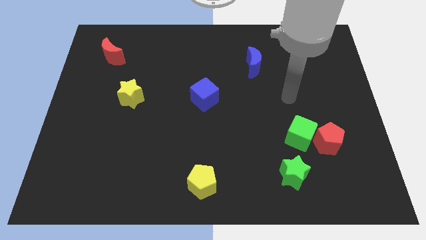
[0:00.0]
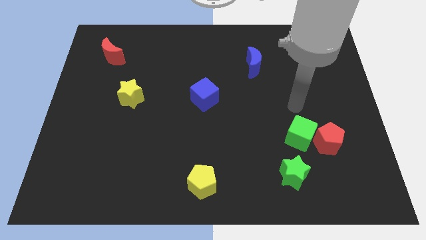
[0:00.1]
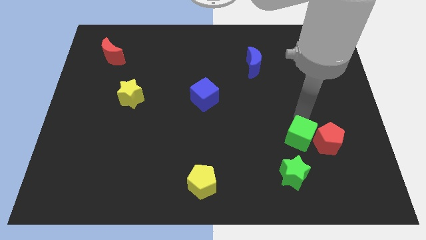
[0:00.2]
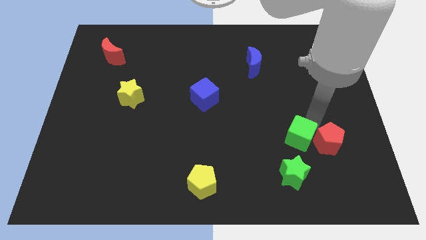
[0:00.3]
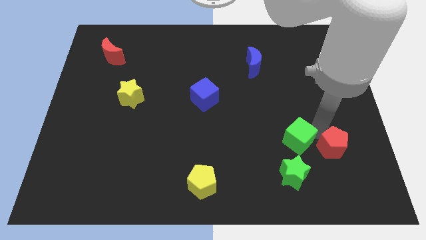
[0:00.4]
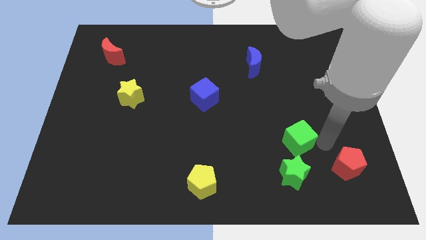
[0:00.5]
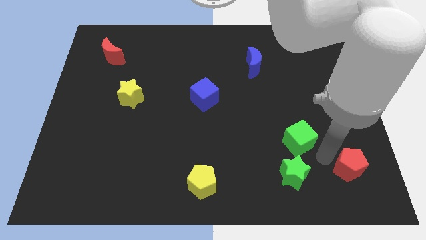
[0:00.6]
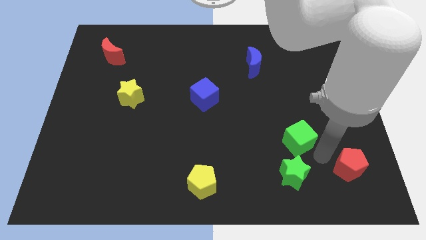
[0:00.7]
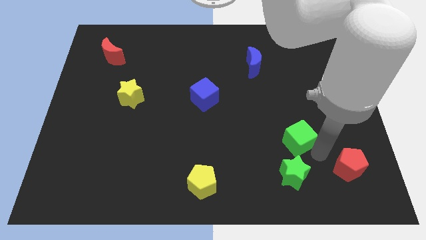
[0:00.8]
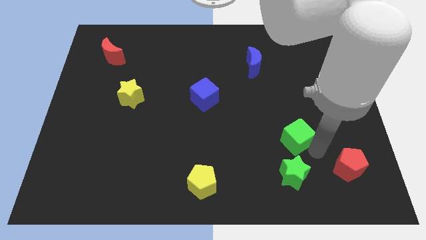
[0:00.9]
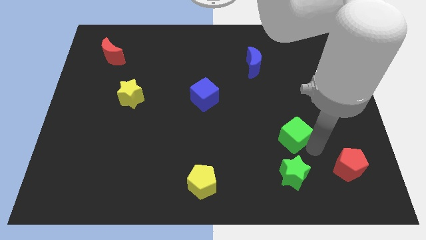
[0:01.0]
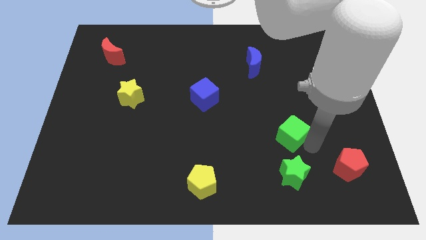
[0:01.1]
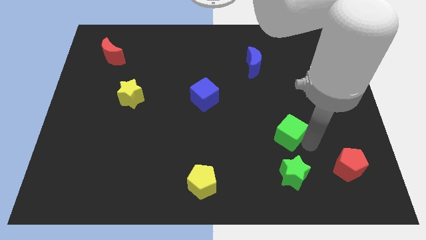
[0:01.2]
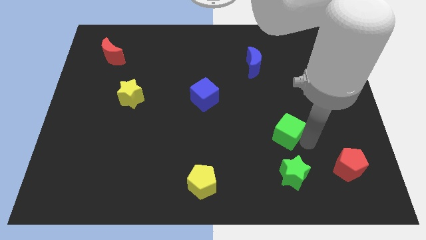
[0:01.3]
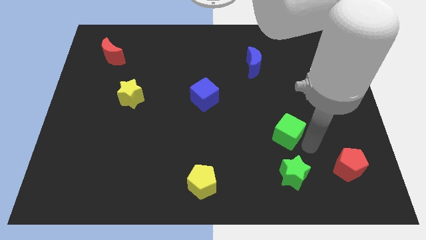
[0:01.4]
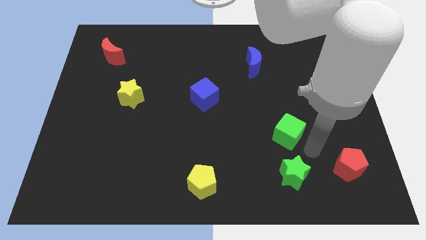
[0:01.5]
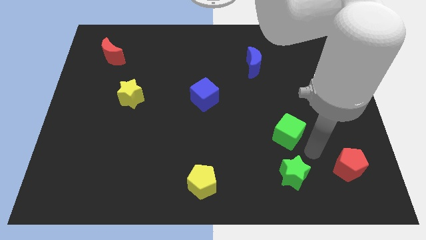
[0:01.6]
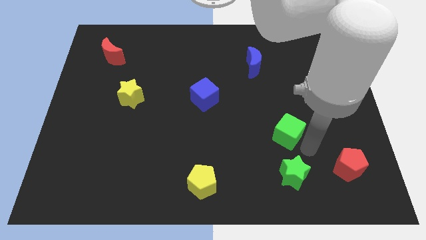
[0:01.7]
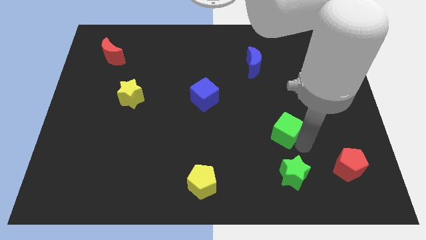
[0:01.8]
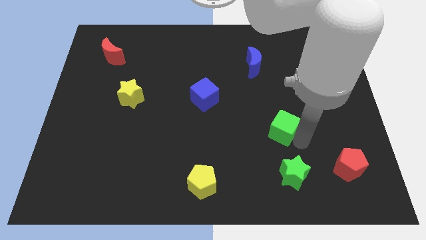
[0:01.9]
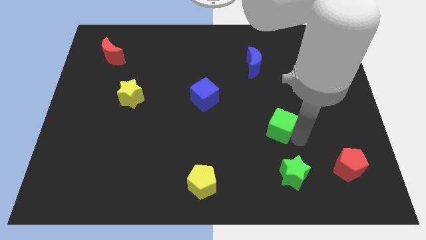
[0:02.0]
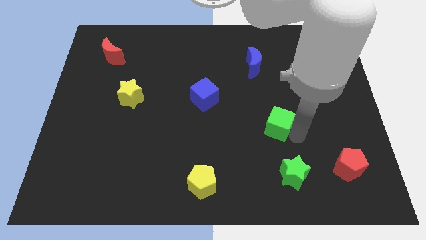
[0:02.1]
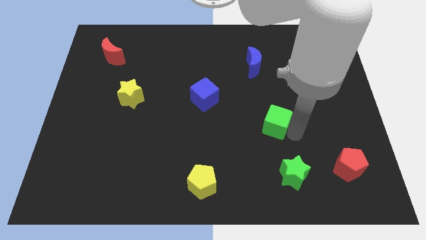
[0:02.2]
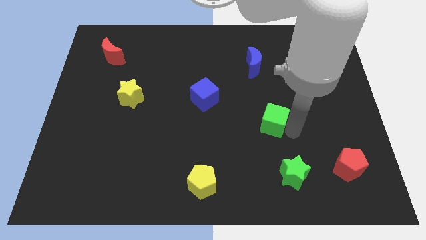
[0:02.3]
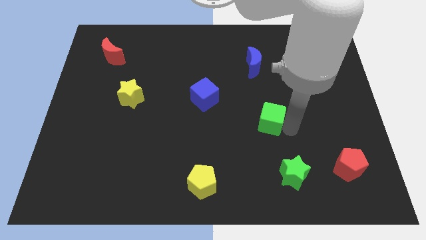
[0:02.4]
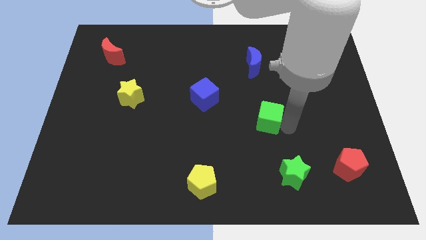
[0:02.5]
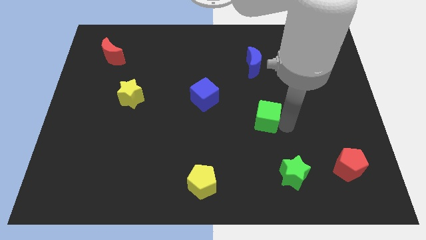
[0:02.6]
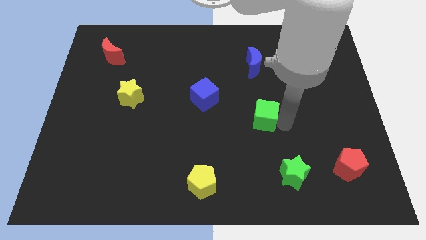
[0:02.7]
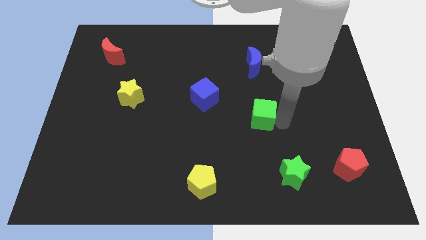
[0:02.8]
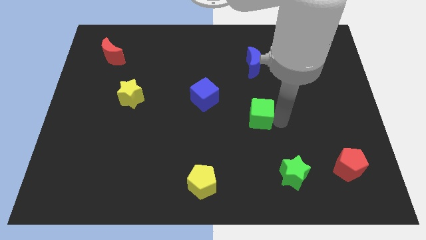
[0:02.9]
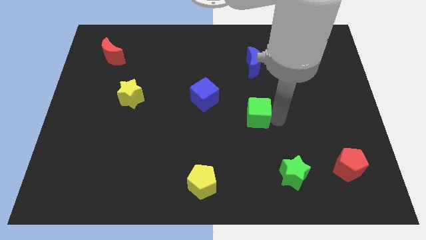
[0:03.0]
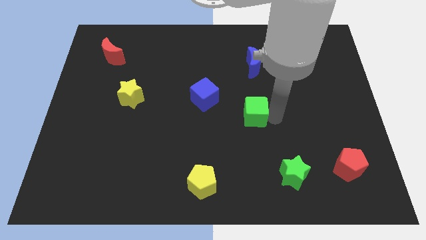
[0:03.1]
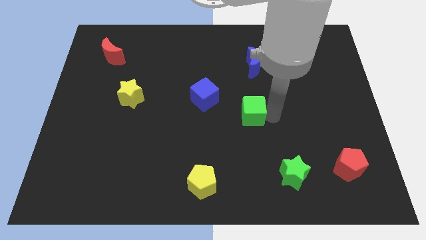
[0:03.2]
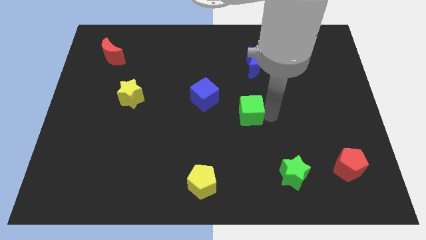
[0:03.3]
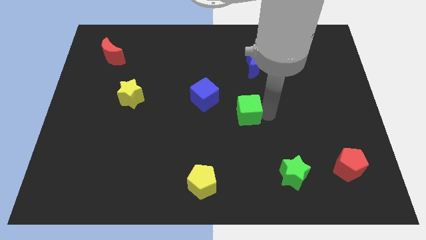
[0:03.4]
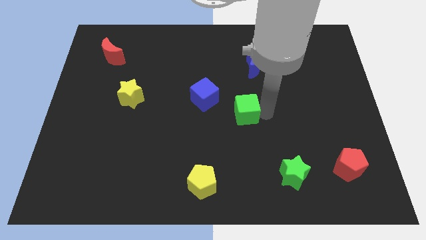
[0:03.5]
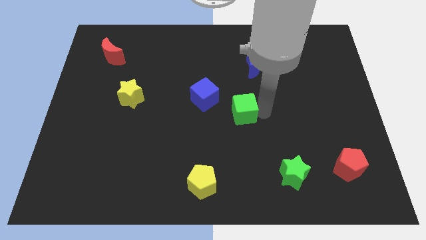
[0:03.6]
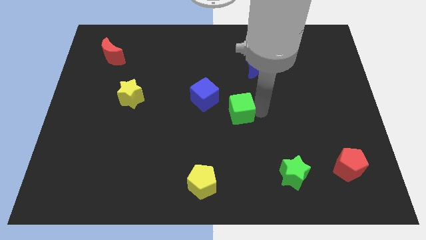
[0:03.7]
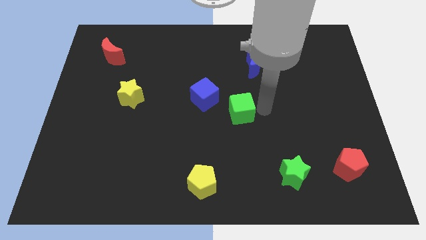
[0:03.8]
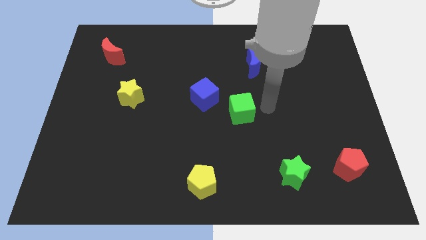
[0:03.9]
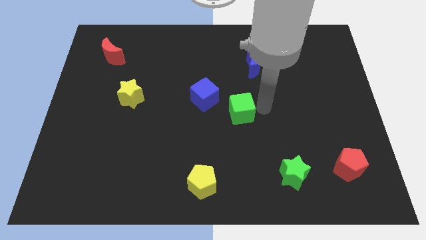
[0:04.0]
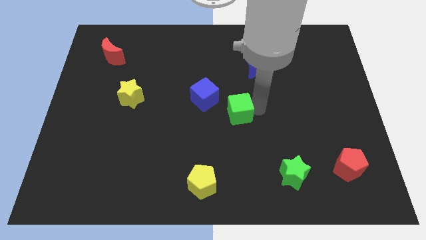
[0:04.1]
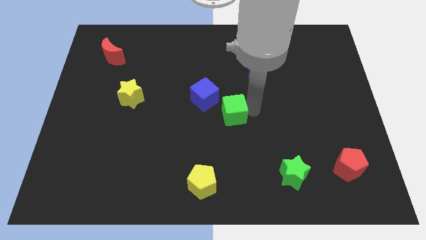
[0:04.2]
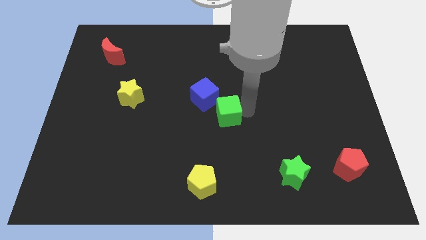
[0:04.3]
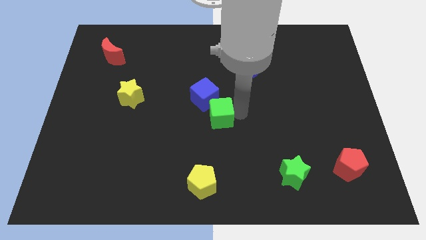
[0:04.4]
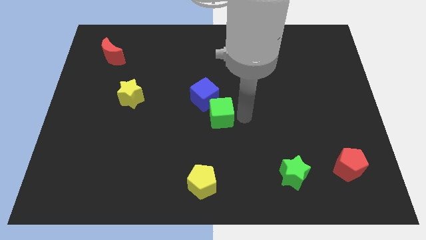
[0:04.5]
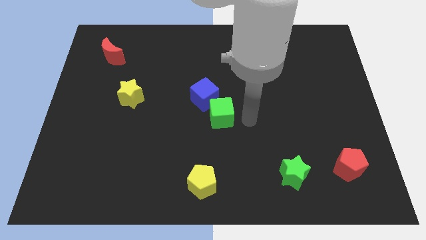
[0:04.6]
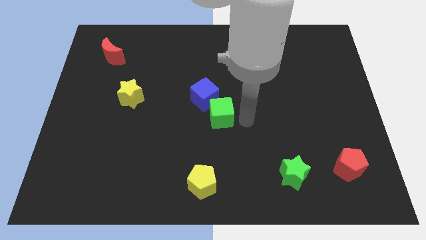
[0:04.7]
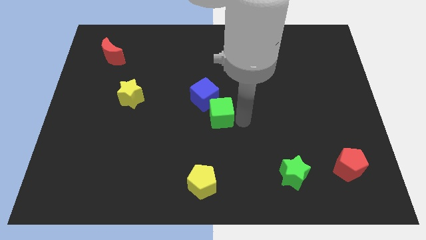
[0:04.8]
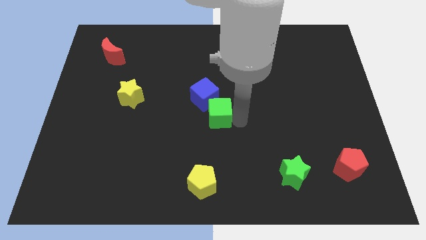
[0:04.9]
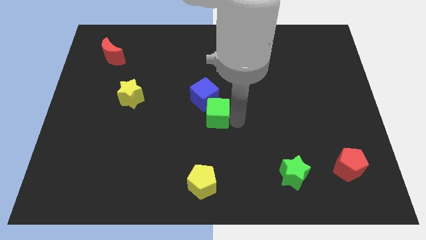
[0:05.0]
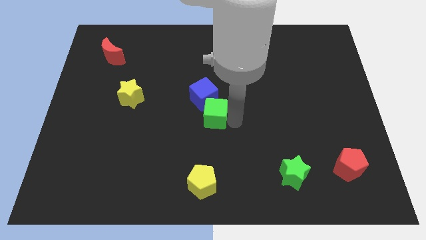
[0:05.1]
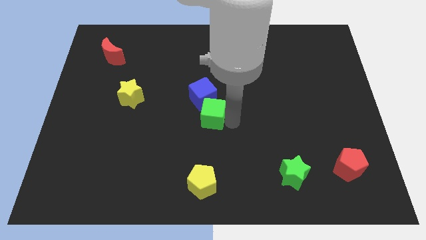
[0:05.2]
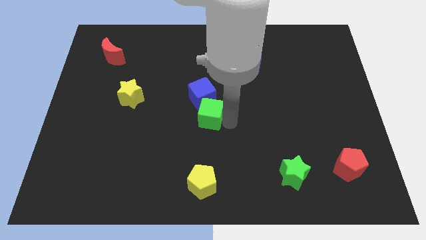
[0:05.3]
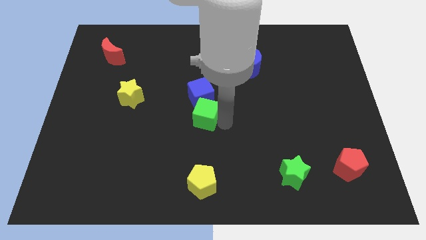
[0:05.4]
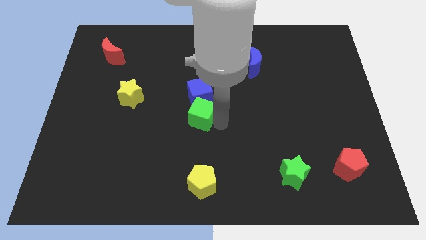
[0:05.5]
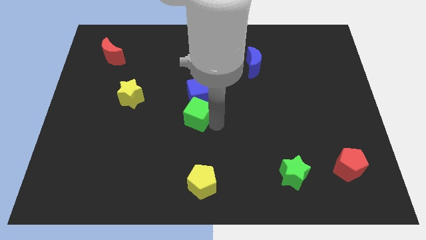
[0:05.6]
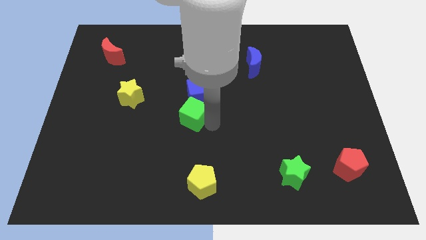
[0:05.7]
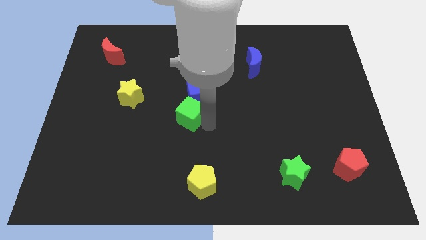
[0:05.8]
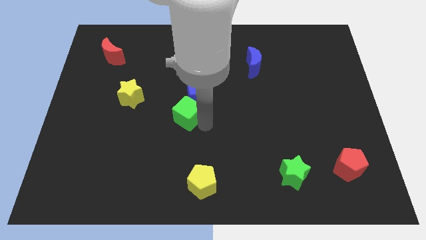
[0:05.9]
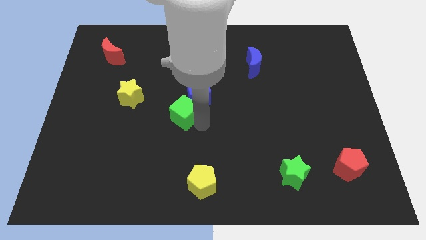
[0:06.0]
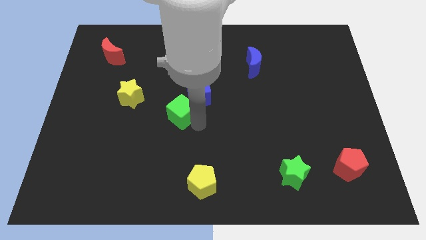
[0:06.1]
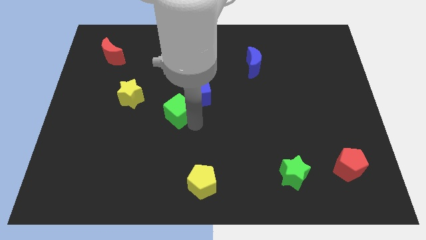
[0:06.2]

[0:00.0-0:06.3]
move the green cube just right of the yellow star

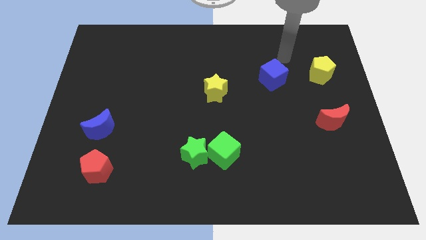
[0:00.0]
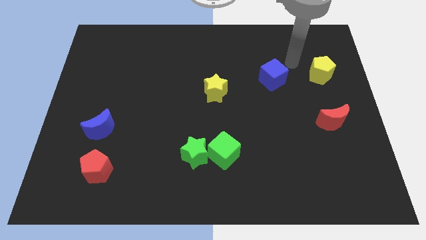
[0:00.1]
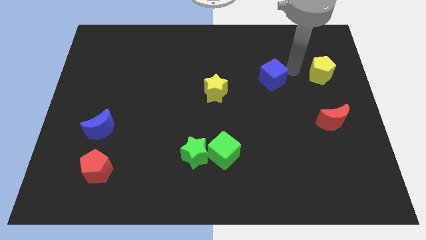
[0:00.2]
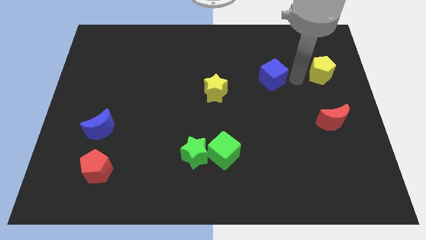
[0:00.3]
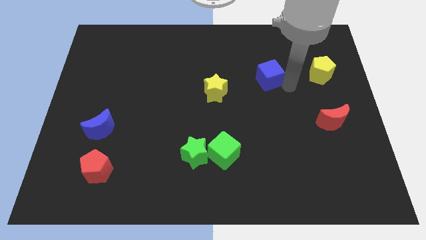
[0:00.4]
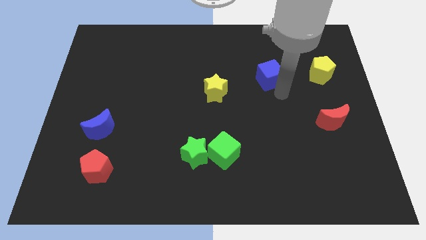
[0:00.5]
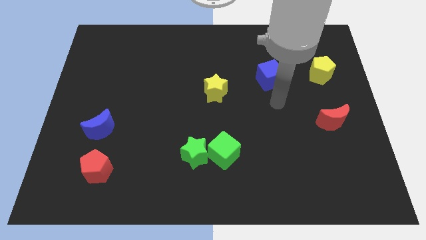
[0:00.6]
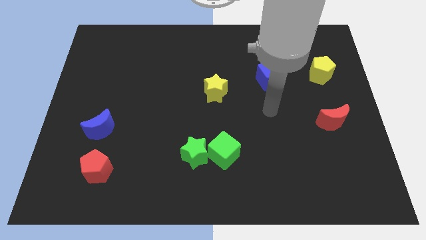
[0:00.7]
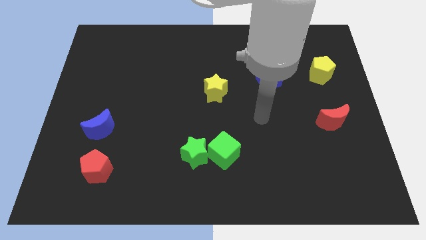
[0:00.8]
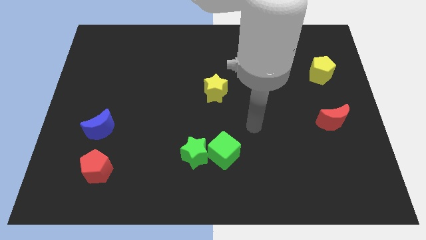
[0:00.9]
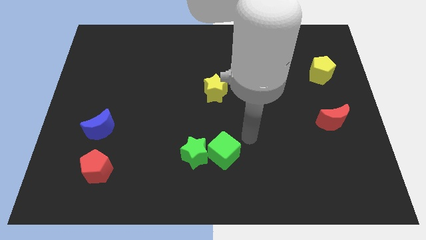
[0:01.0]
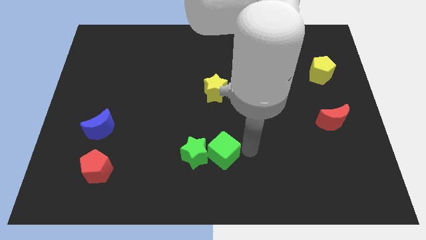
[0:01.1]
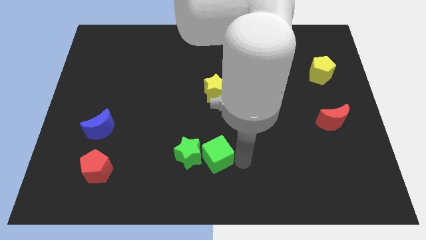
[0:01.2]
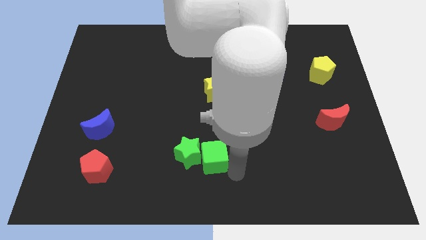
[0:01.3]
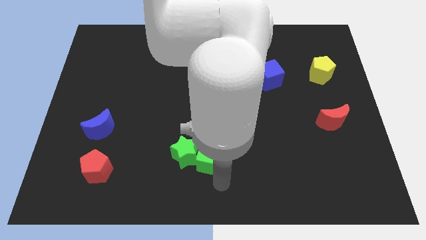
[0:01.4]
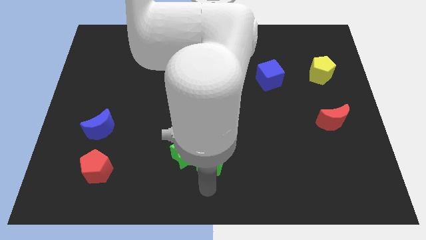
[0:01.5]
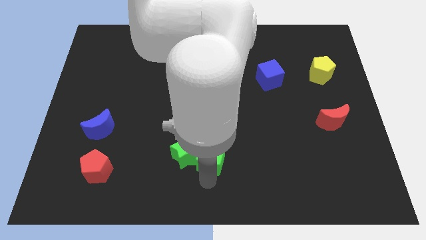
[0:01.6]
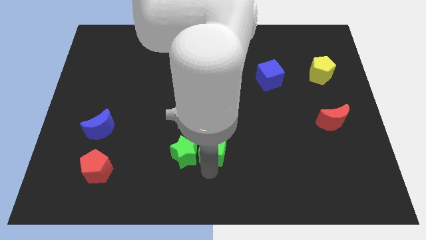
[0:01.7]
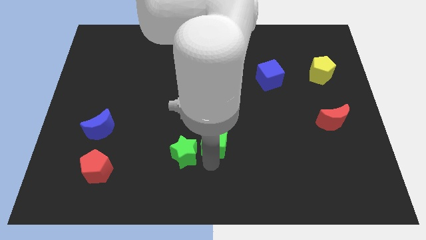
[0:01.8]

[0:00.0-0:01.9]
move the green cube to the bottom side of the yellow star

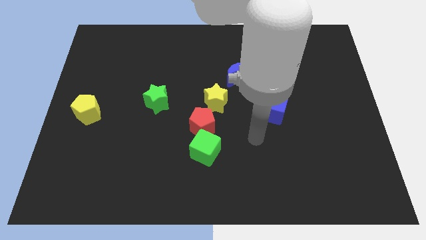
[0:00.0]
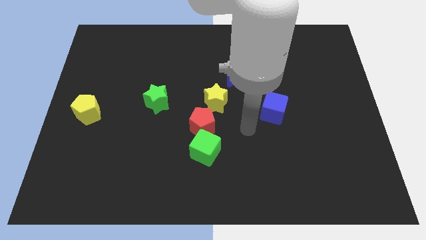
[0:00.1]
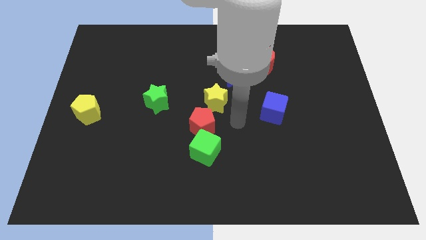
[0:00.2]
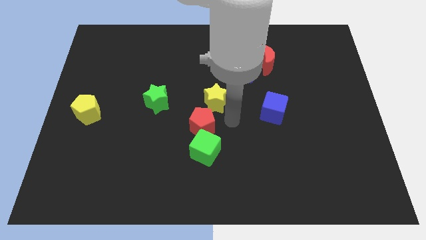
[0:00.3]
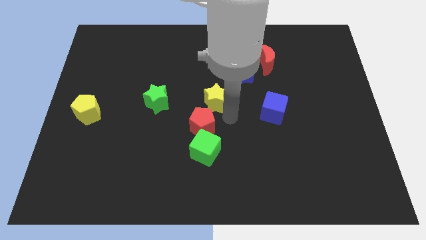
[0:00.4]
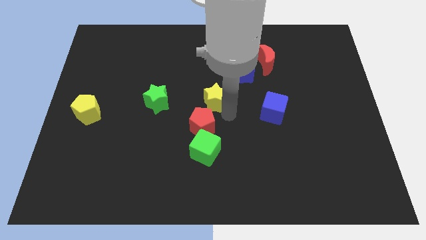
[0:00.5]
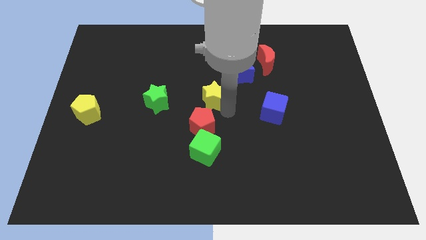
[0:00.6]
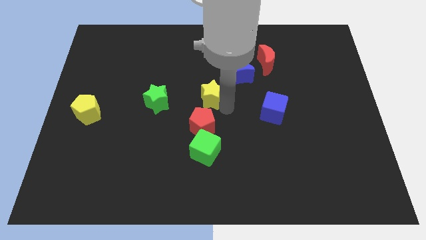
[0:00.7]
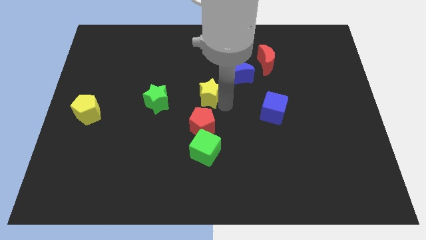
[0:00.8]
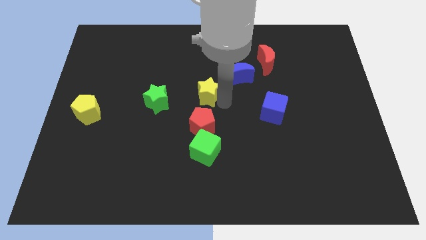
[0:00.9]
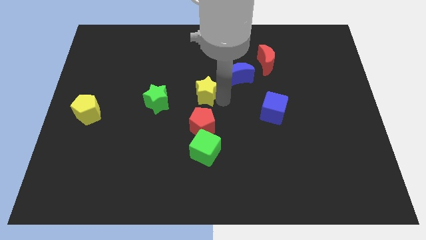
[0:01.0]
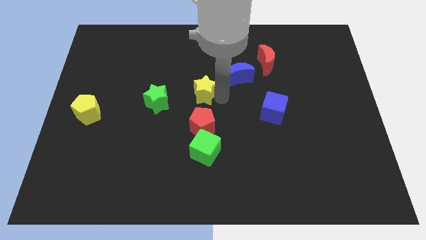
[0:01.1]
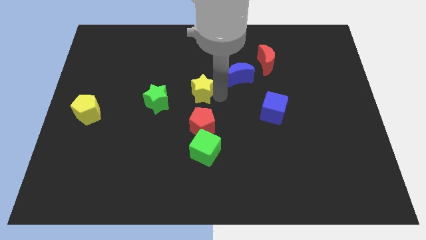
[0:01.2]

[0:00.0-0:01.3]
push the yellow star to the left of the blue moon
